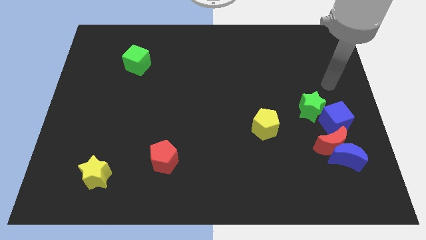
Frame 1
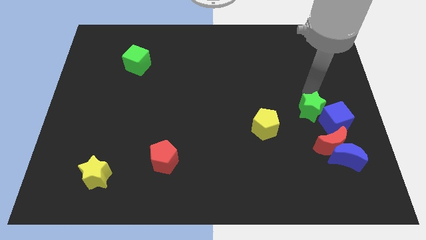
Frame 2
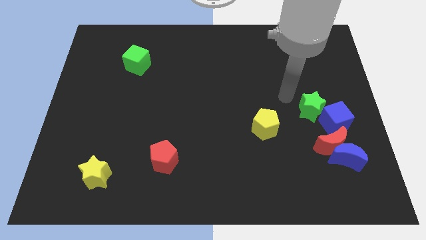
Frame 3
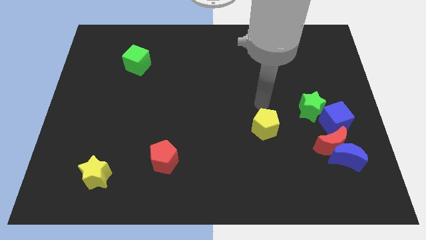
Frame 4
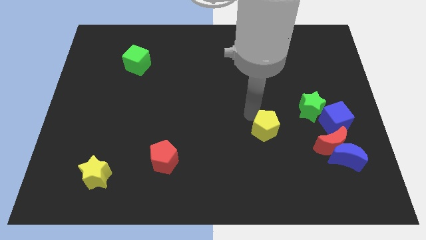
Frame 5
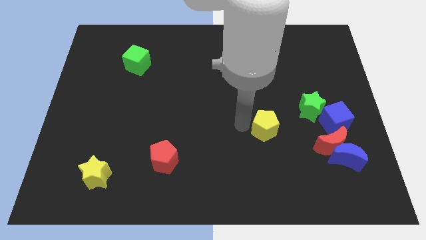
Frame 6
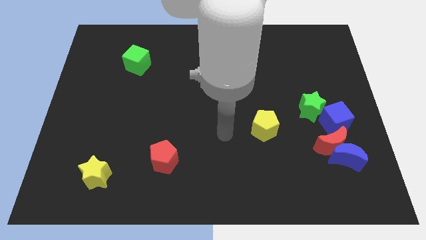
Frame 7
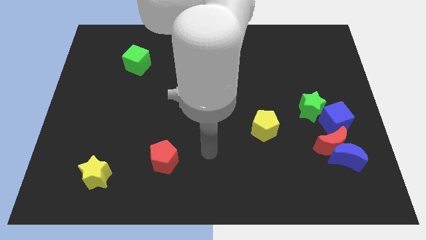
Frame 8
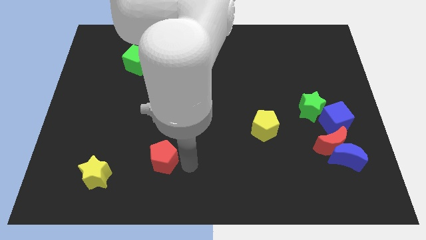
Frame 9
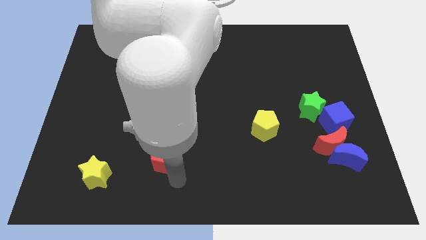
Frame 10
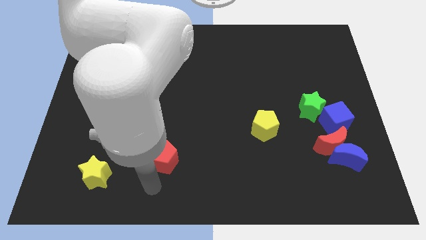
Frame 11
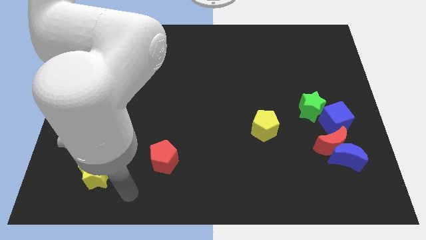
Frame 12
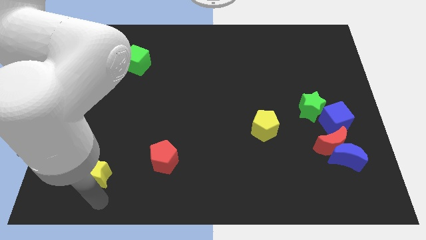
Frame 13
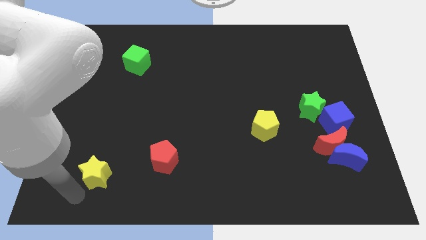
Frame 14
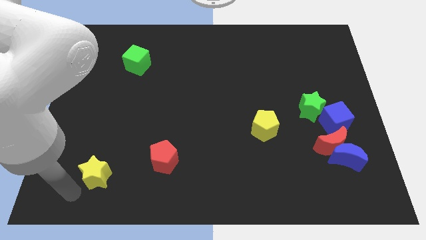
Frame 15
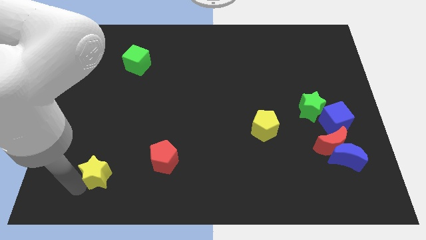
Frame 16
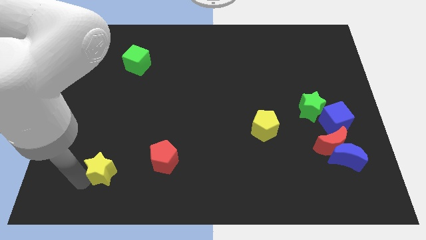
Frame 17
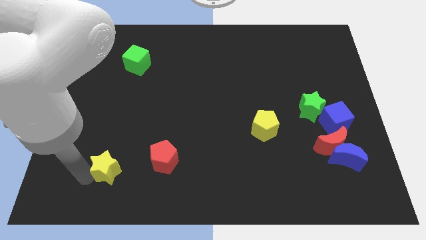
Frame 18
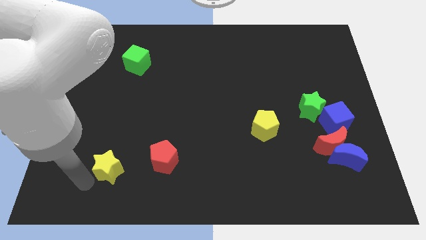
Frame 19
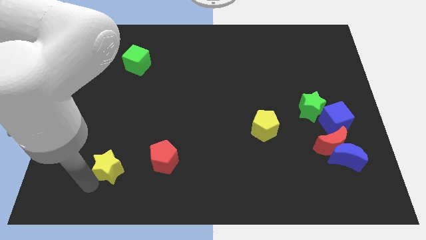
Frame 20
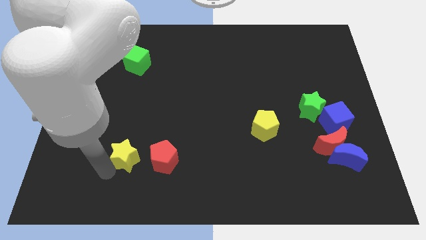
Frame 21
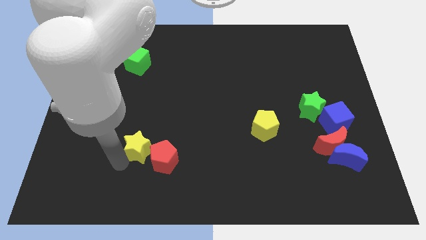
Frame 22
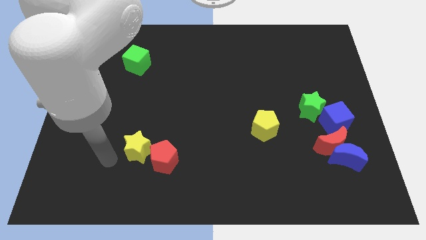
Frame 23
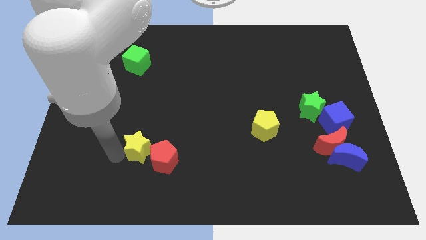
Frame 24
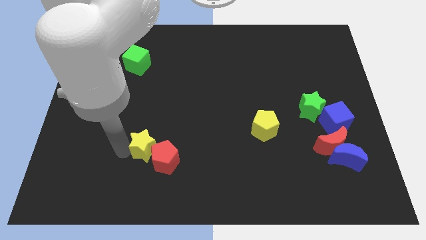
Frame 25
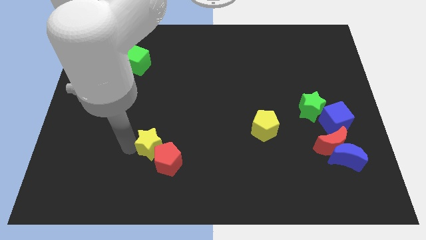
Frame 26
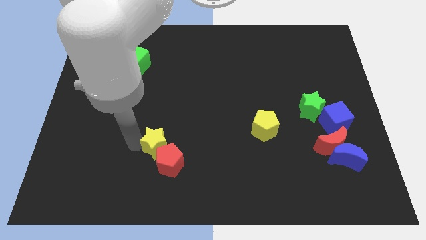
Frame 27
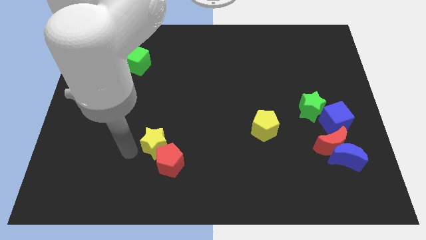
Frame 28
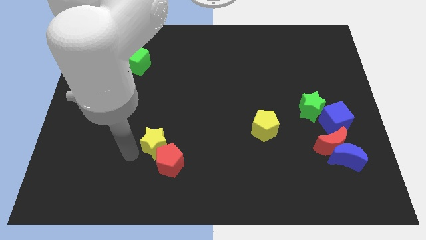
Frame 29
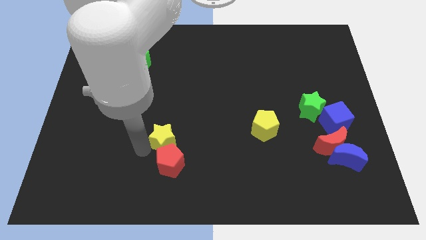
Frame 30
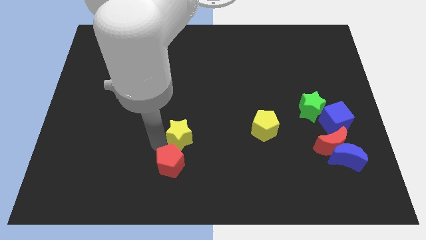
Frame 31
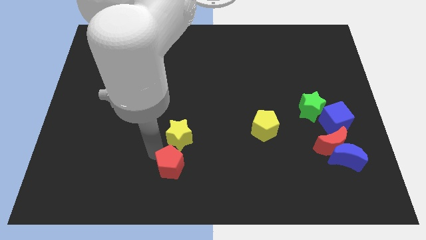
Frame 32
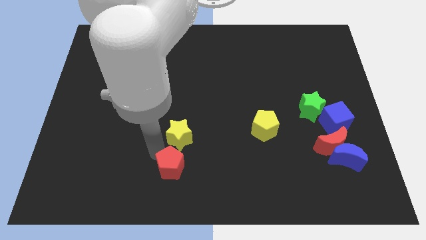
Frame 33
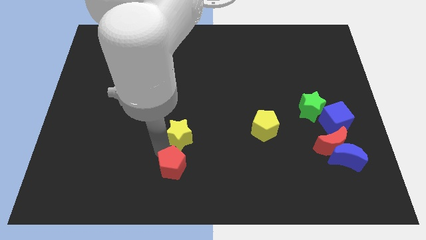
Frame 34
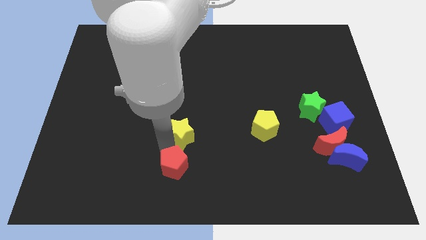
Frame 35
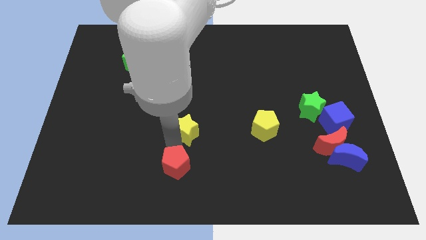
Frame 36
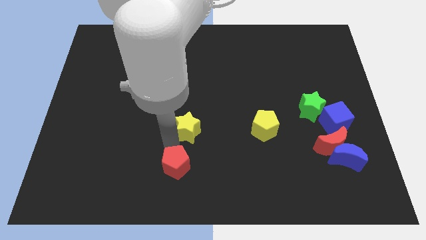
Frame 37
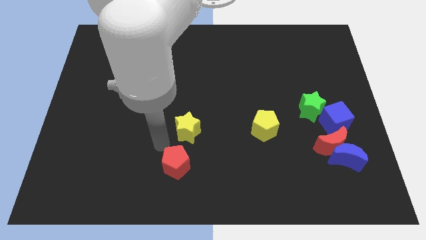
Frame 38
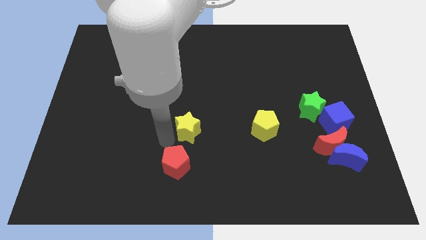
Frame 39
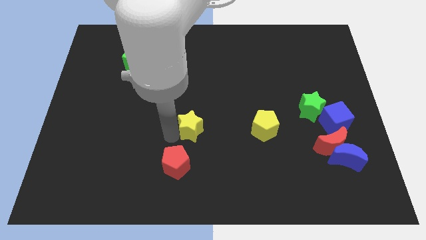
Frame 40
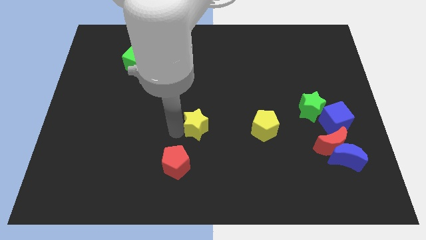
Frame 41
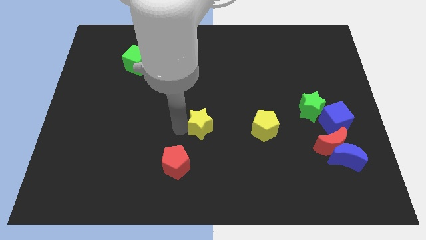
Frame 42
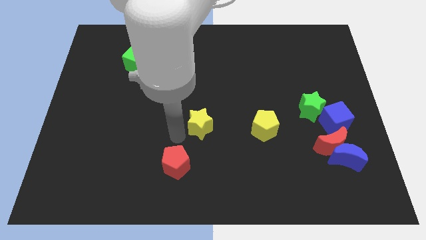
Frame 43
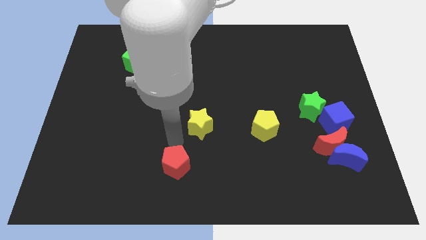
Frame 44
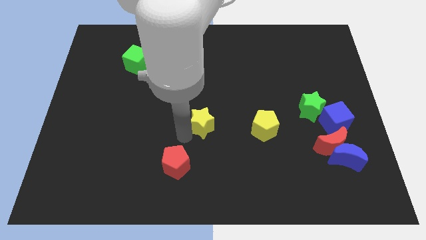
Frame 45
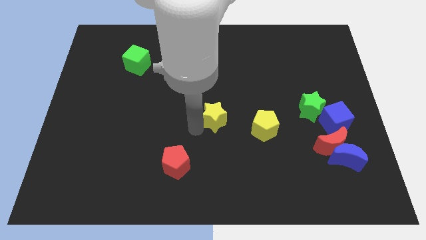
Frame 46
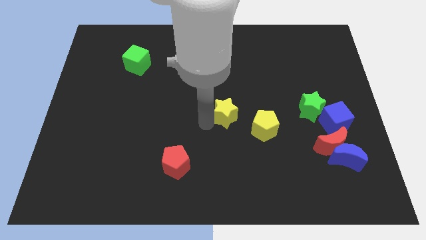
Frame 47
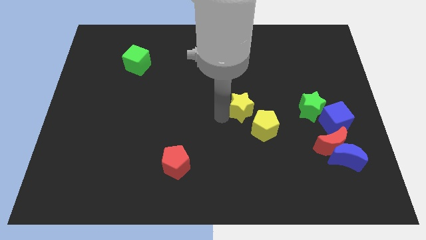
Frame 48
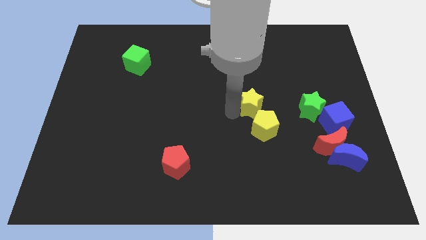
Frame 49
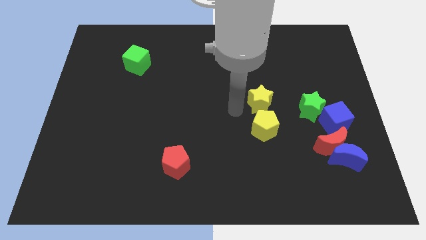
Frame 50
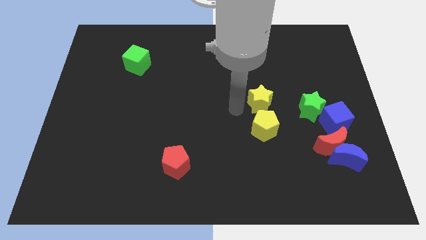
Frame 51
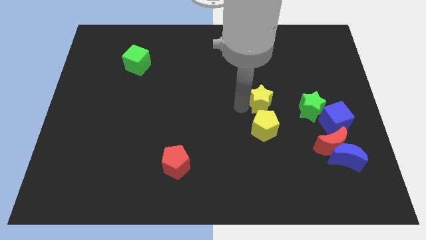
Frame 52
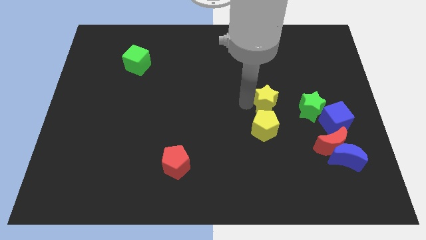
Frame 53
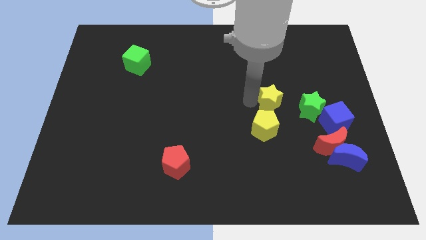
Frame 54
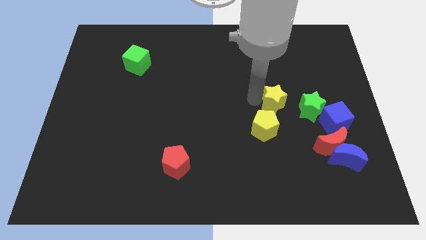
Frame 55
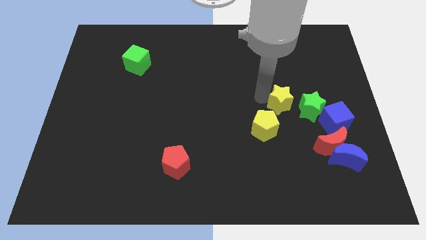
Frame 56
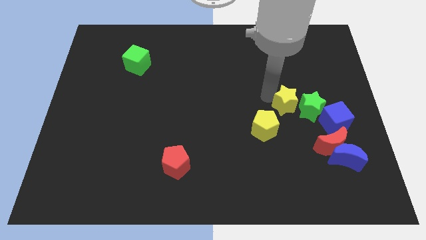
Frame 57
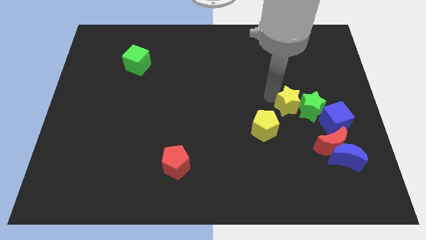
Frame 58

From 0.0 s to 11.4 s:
put the yellow star to the top left of the blue cube

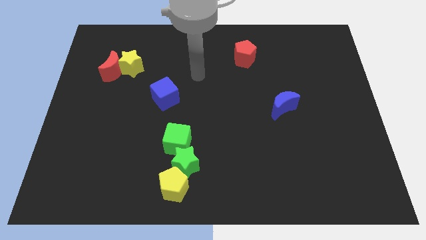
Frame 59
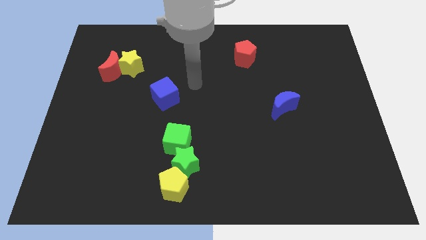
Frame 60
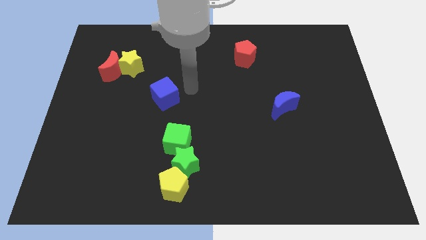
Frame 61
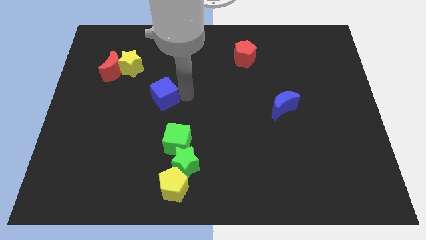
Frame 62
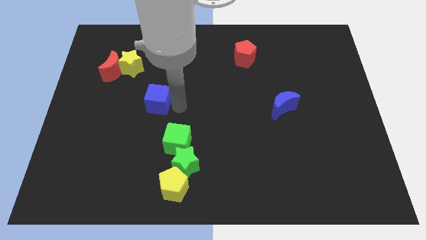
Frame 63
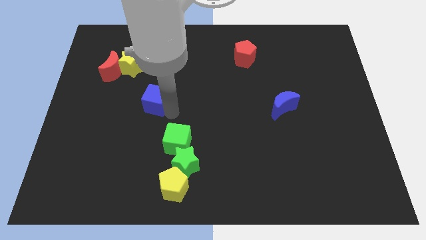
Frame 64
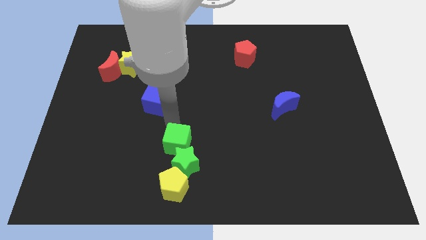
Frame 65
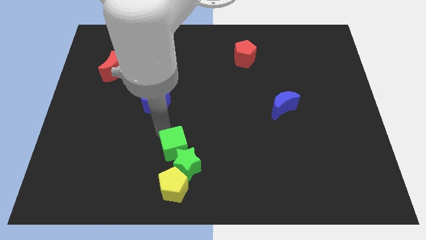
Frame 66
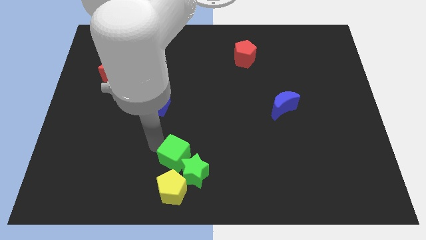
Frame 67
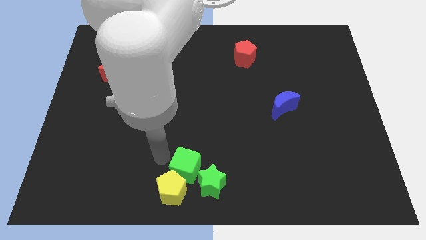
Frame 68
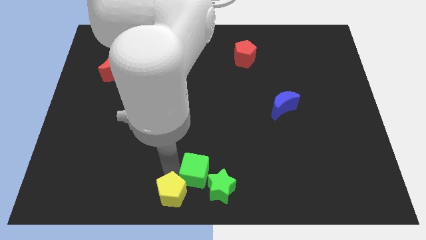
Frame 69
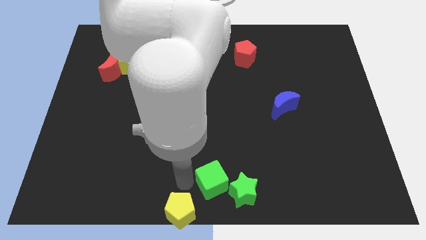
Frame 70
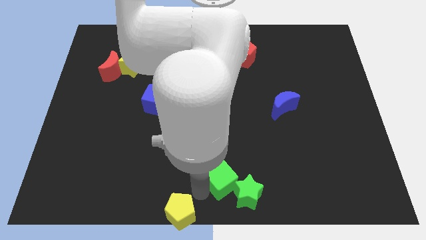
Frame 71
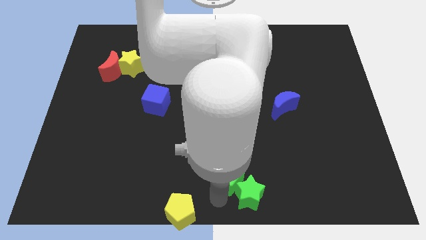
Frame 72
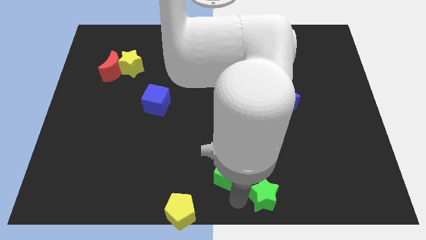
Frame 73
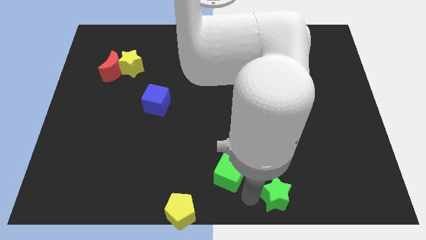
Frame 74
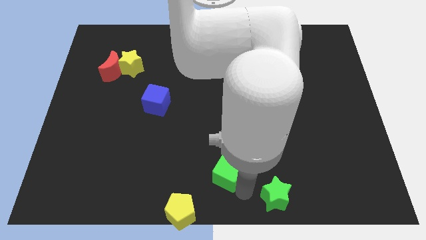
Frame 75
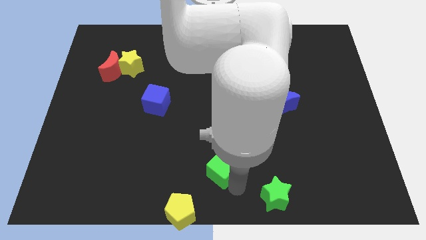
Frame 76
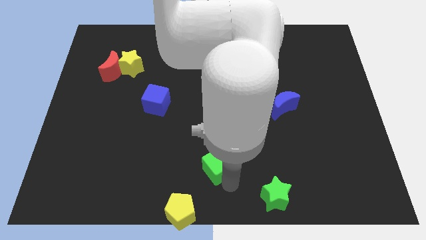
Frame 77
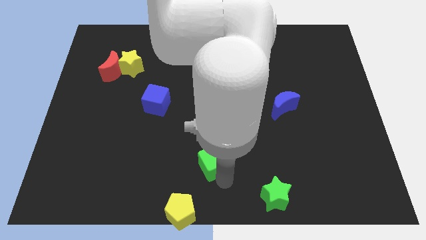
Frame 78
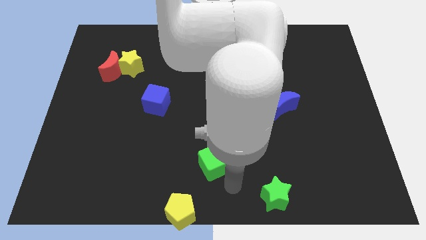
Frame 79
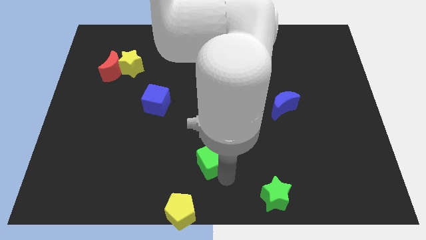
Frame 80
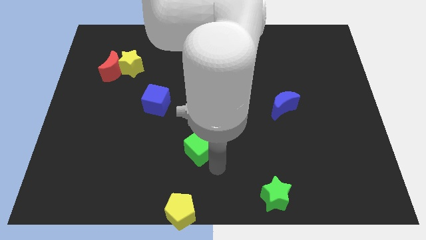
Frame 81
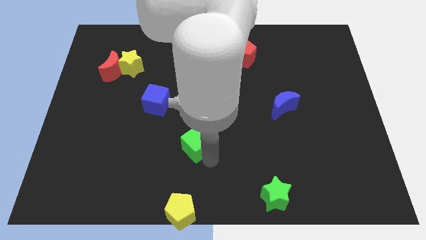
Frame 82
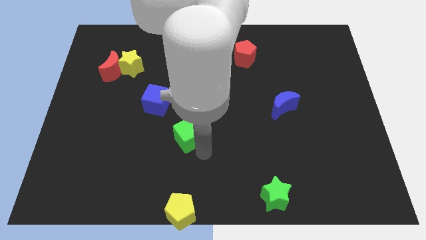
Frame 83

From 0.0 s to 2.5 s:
push the green cube diagonally down and to the right of the blue cube
